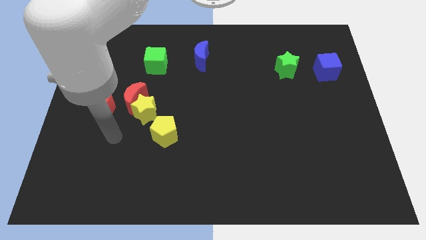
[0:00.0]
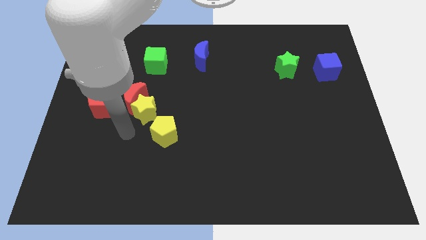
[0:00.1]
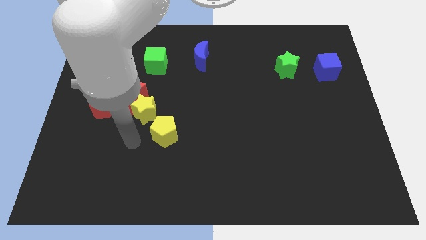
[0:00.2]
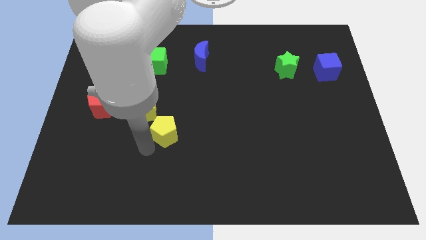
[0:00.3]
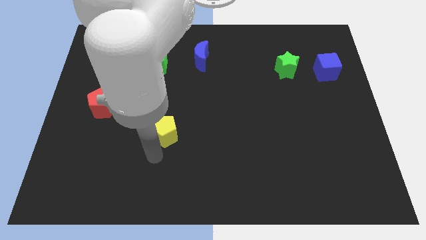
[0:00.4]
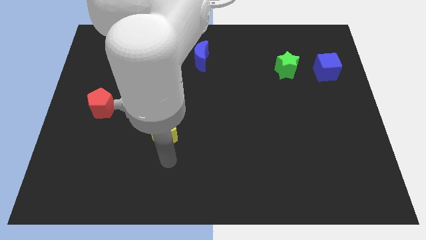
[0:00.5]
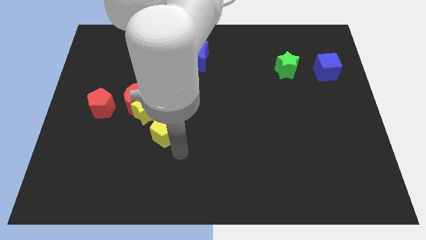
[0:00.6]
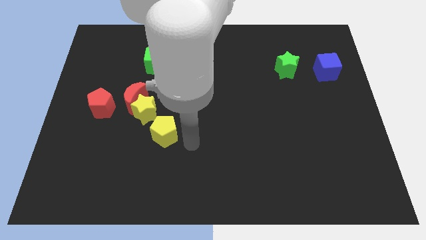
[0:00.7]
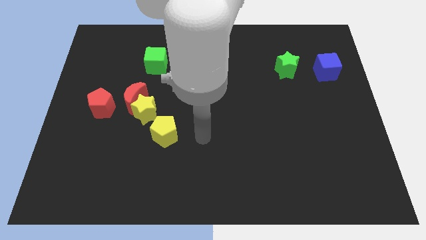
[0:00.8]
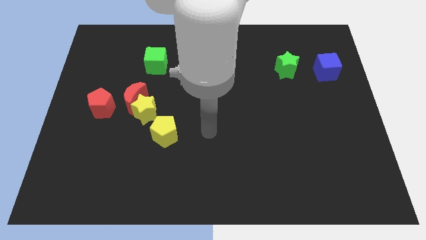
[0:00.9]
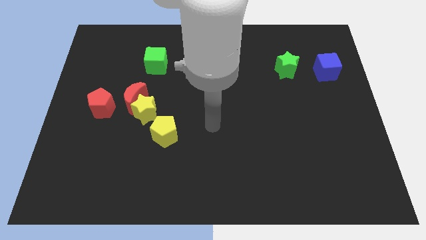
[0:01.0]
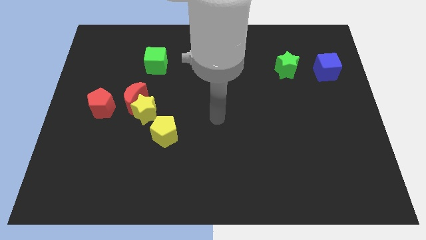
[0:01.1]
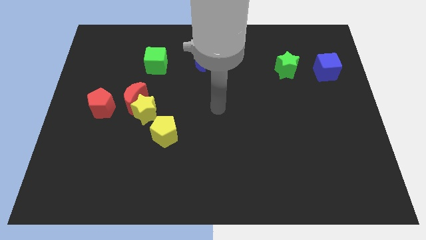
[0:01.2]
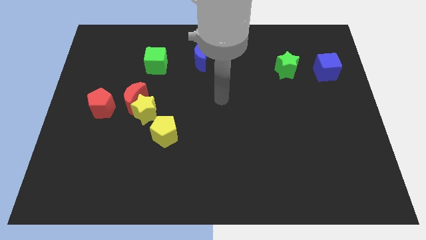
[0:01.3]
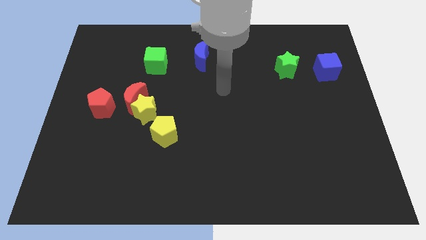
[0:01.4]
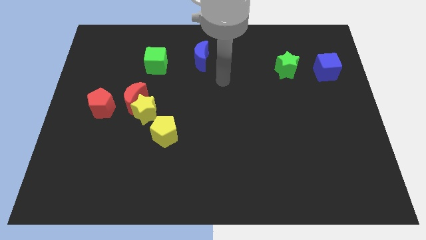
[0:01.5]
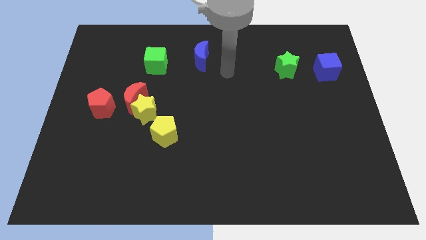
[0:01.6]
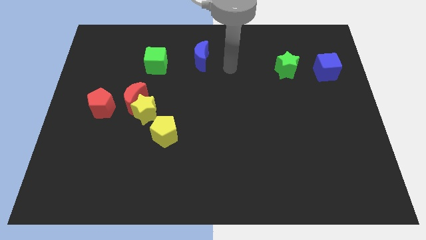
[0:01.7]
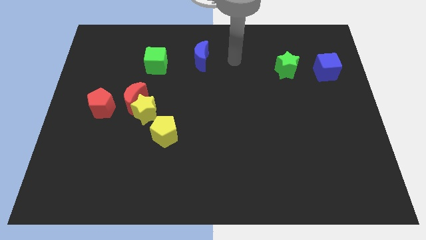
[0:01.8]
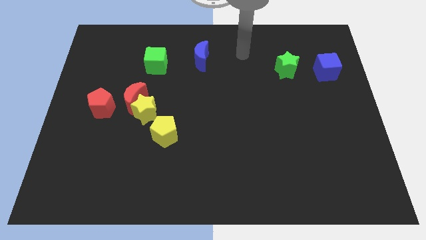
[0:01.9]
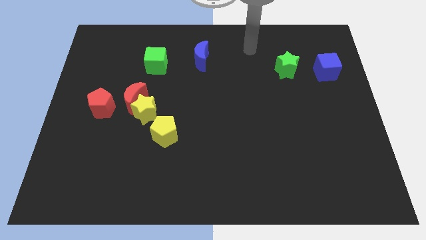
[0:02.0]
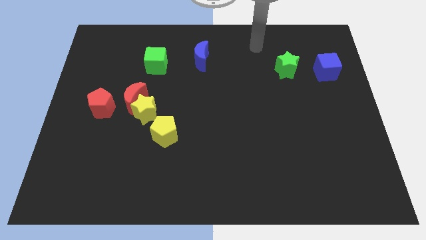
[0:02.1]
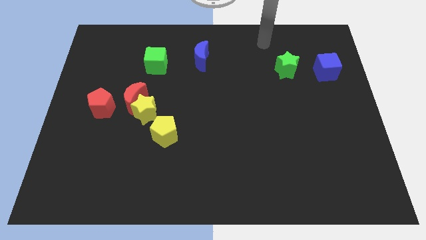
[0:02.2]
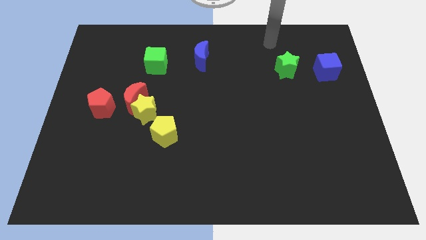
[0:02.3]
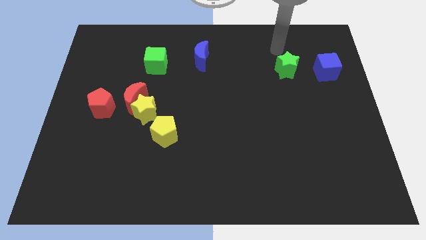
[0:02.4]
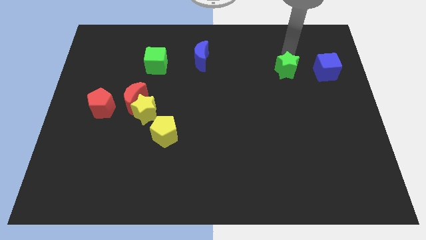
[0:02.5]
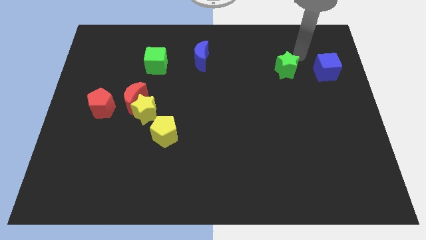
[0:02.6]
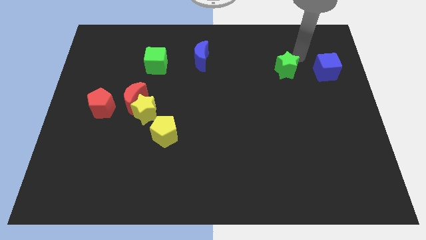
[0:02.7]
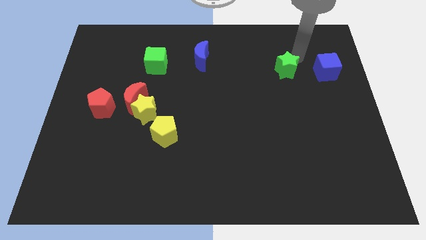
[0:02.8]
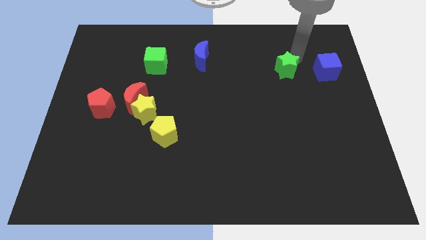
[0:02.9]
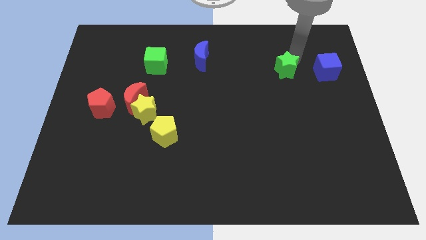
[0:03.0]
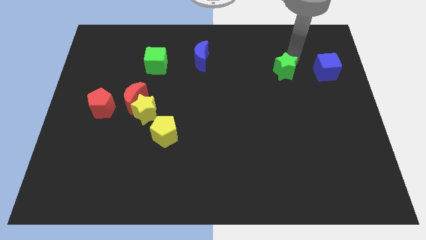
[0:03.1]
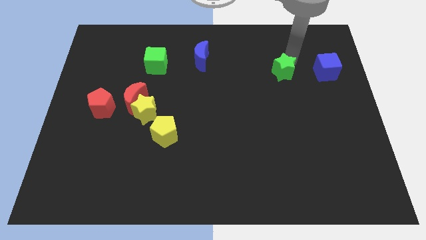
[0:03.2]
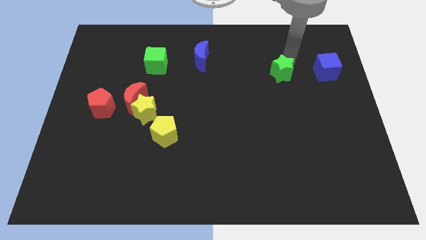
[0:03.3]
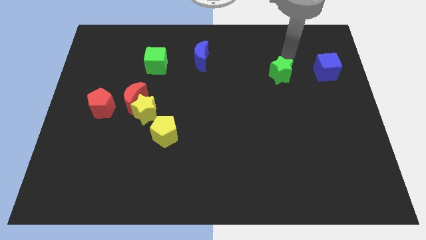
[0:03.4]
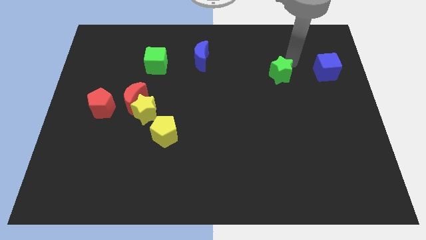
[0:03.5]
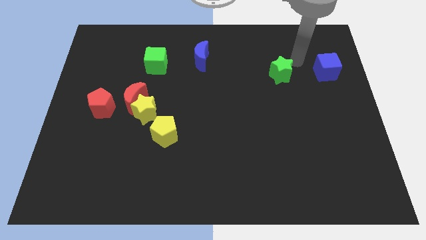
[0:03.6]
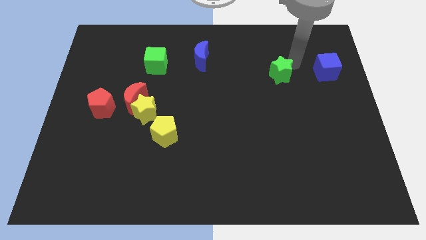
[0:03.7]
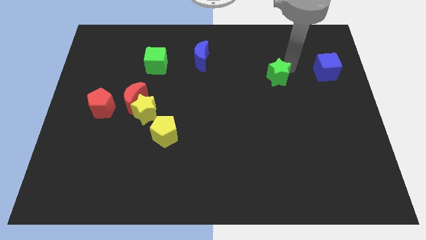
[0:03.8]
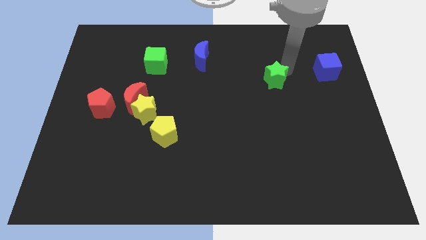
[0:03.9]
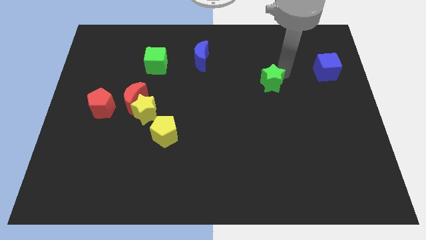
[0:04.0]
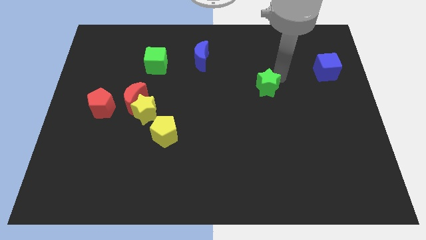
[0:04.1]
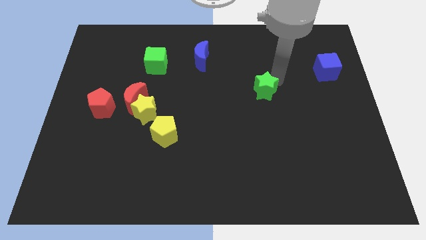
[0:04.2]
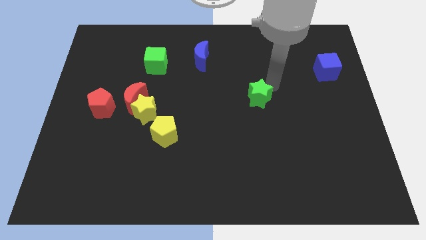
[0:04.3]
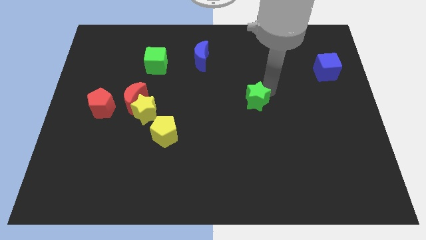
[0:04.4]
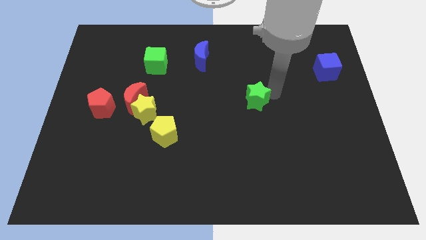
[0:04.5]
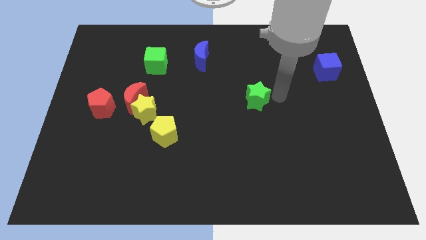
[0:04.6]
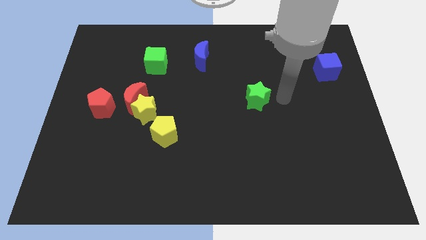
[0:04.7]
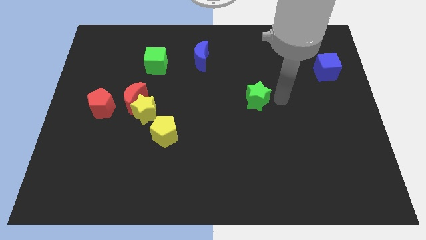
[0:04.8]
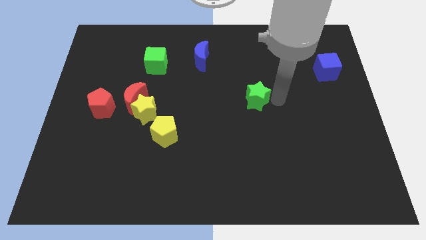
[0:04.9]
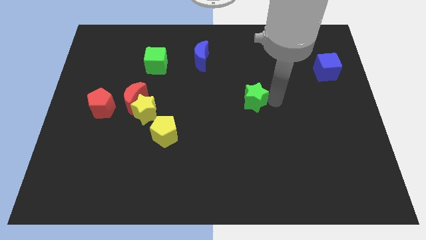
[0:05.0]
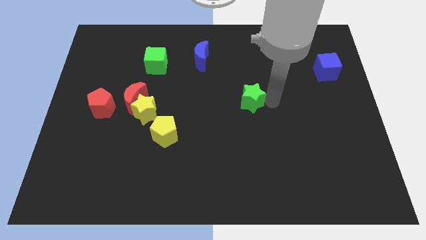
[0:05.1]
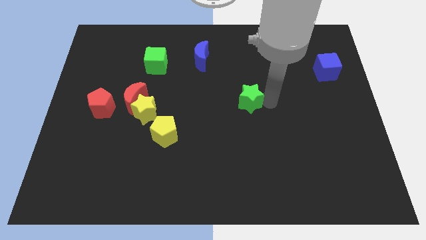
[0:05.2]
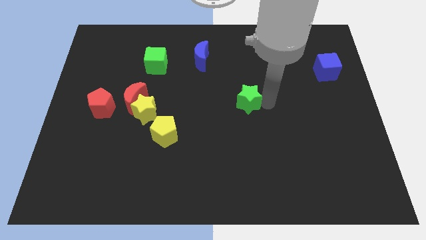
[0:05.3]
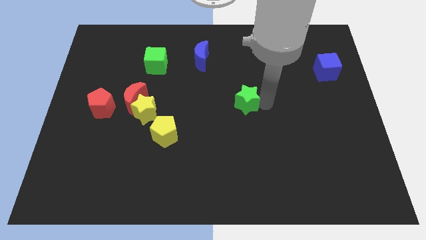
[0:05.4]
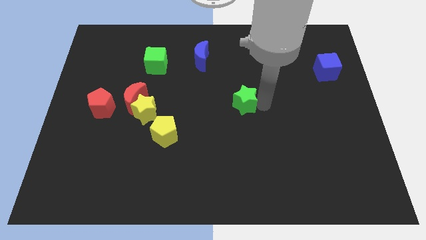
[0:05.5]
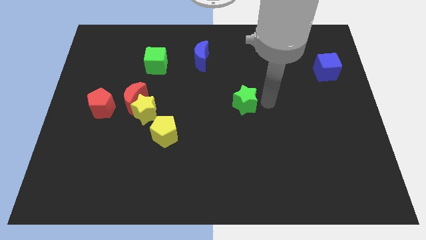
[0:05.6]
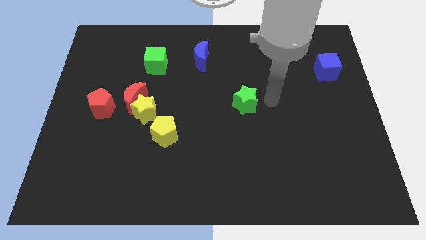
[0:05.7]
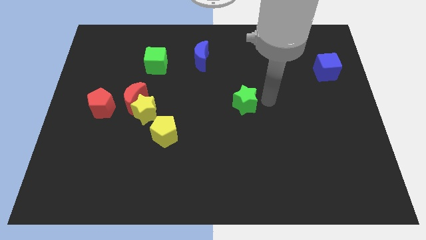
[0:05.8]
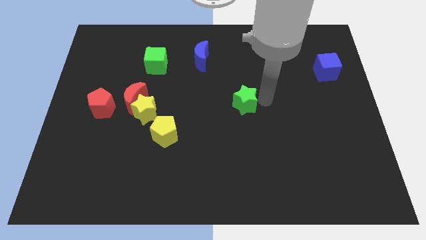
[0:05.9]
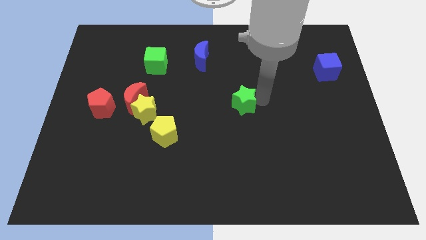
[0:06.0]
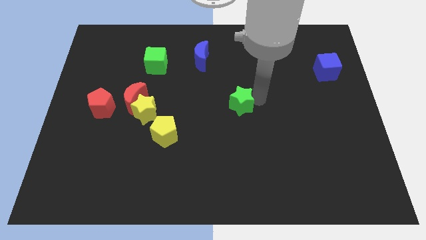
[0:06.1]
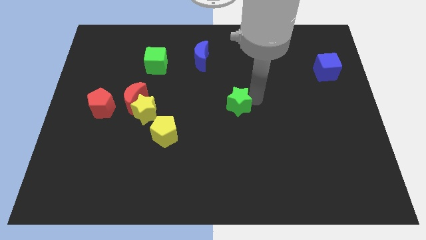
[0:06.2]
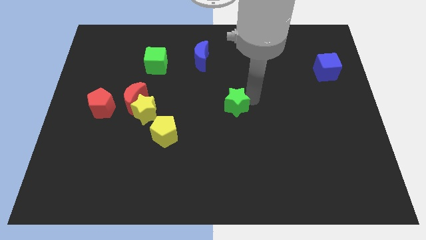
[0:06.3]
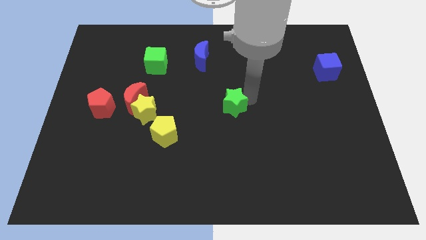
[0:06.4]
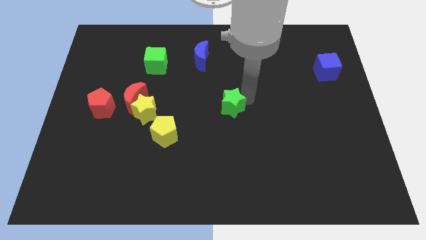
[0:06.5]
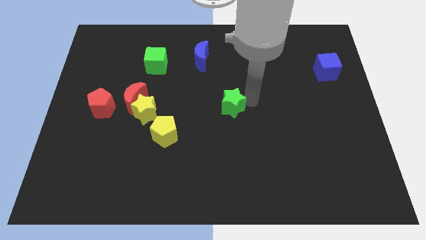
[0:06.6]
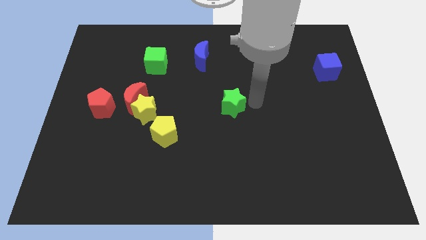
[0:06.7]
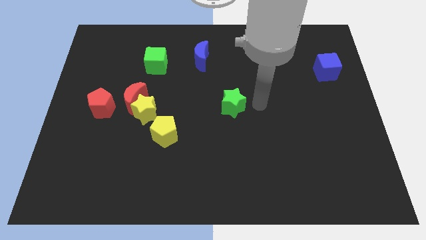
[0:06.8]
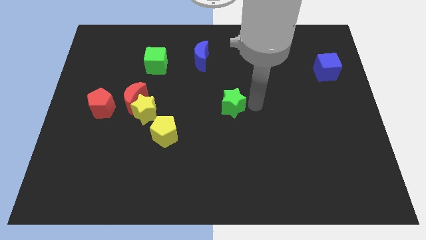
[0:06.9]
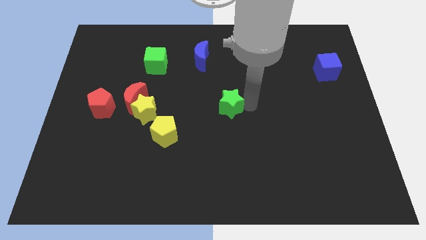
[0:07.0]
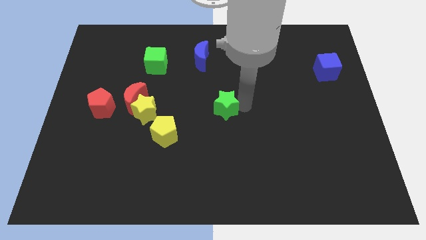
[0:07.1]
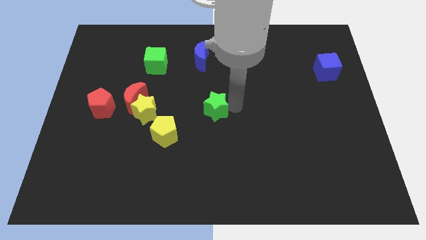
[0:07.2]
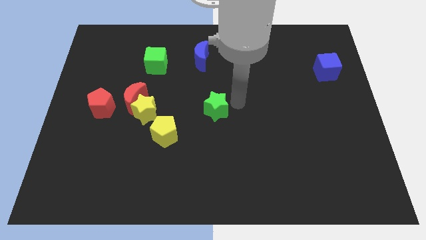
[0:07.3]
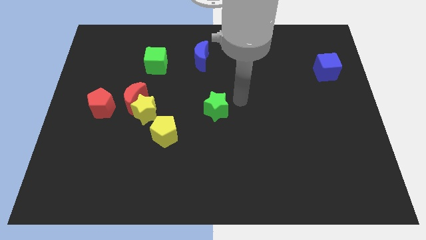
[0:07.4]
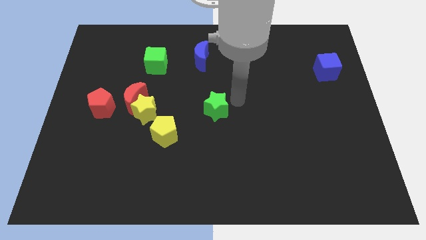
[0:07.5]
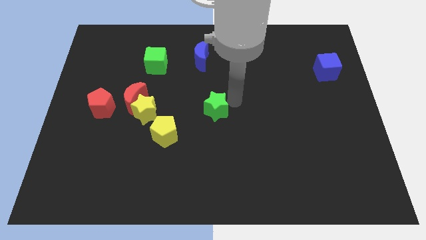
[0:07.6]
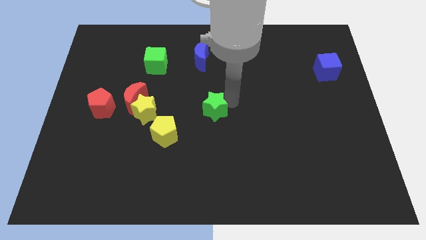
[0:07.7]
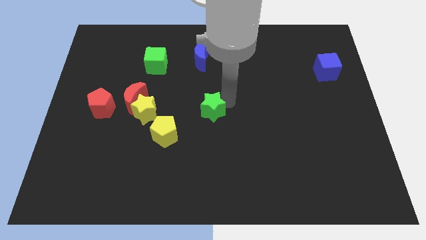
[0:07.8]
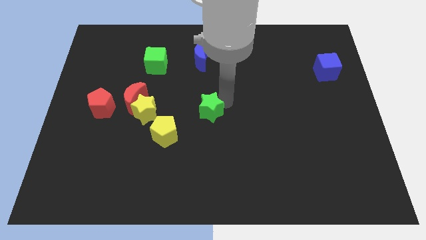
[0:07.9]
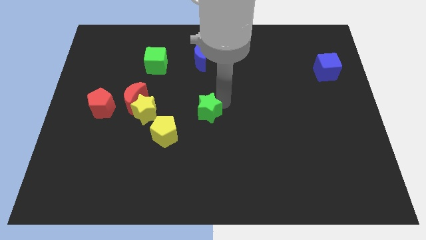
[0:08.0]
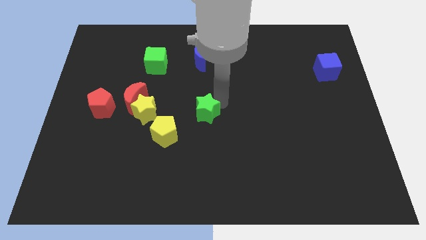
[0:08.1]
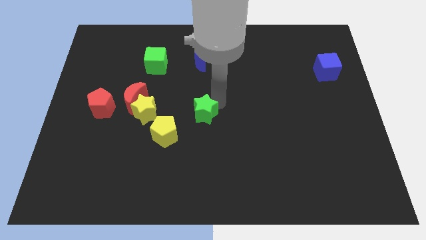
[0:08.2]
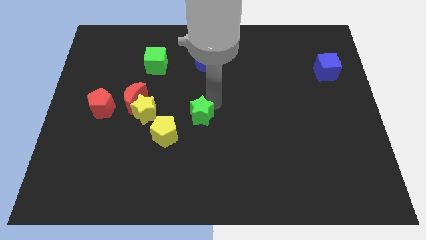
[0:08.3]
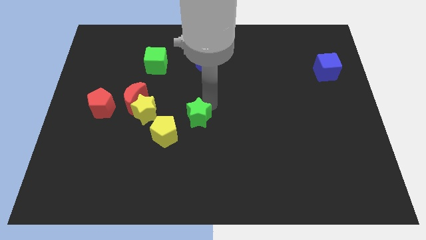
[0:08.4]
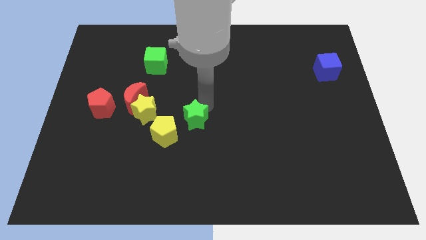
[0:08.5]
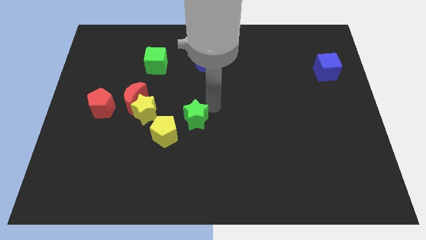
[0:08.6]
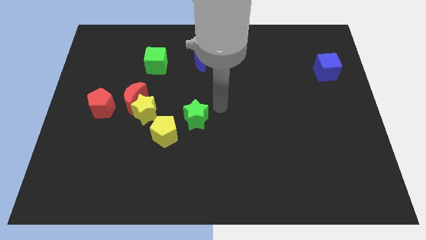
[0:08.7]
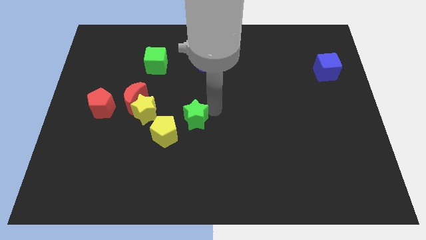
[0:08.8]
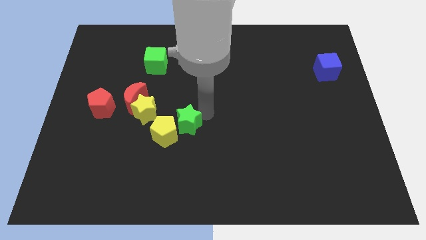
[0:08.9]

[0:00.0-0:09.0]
move the green star to the yellow pentagon
